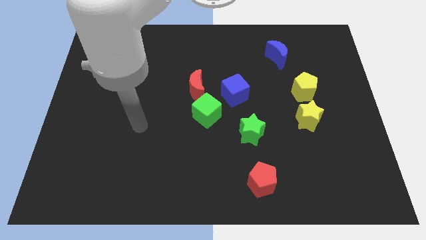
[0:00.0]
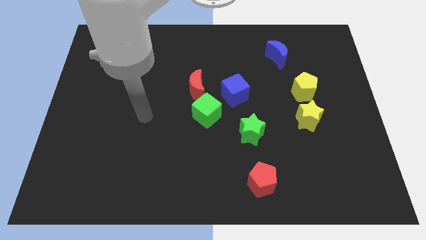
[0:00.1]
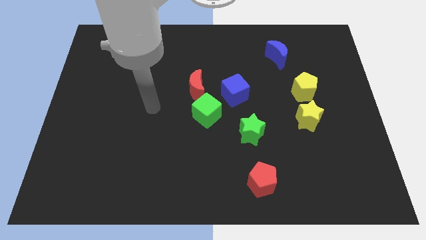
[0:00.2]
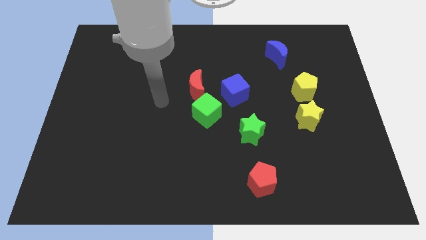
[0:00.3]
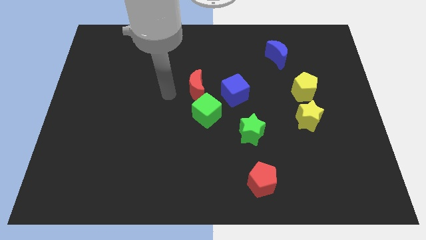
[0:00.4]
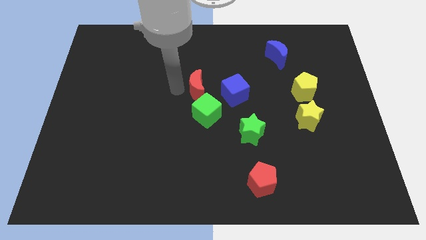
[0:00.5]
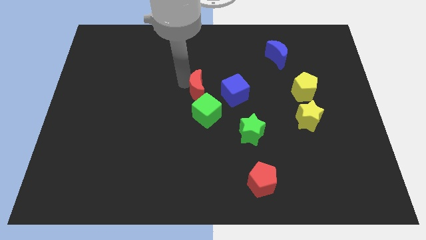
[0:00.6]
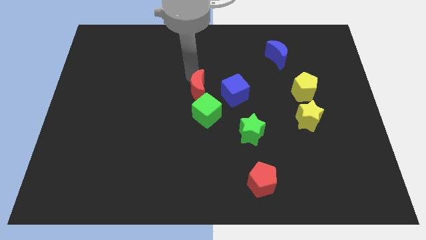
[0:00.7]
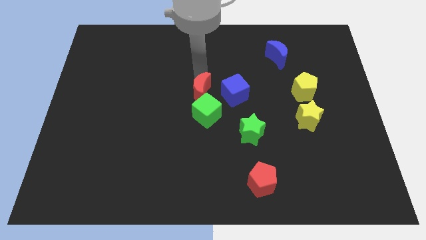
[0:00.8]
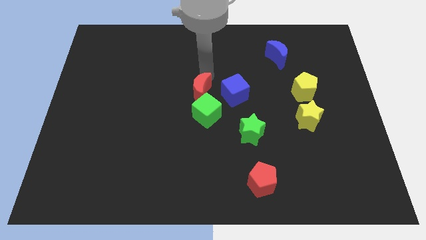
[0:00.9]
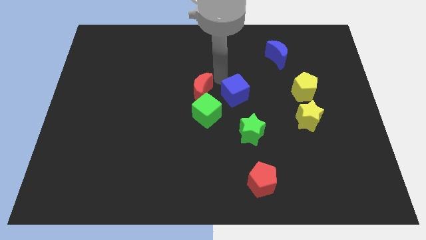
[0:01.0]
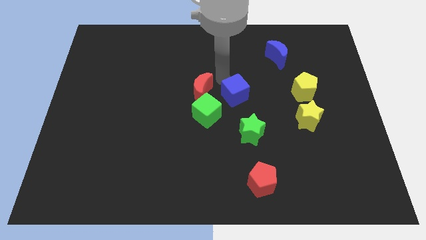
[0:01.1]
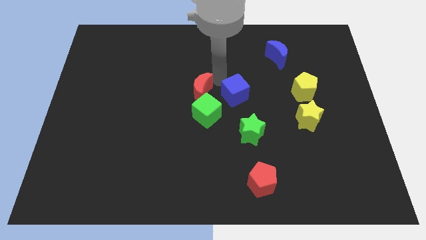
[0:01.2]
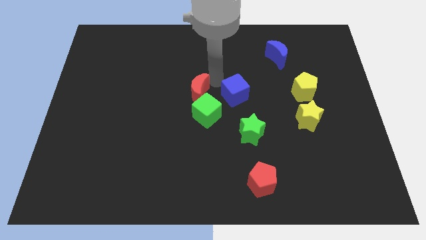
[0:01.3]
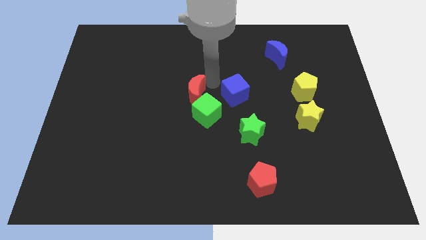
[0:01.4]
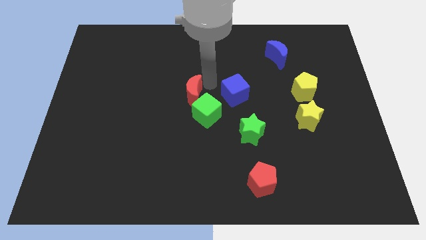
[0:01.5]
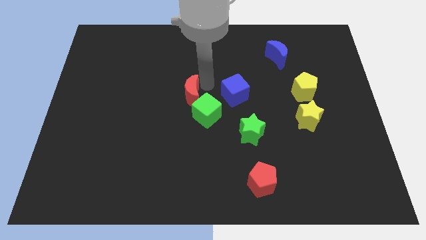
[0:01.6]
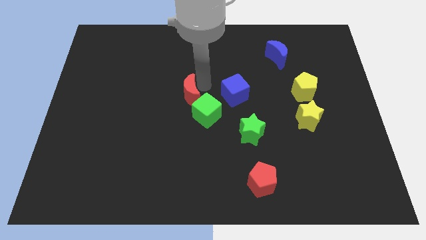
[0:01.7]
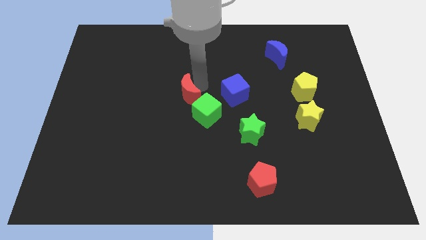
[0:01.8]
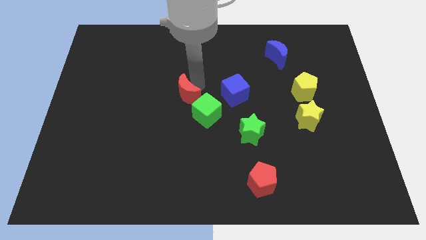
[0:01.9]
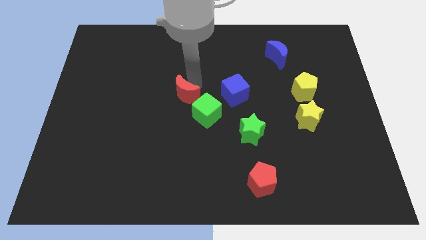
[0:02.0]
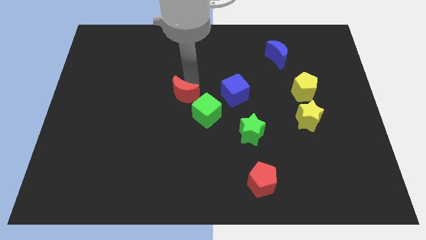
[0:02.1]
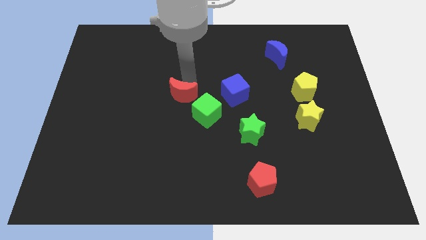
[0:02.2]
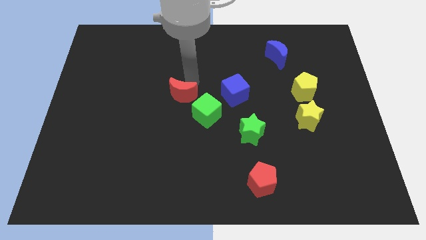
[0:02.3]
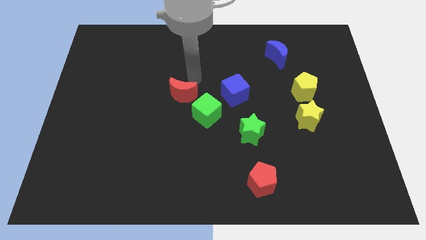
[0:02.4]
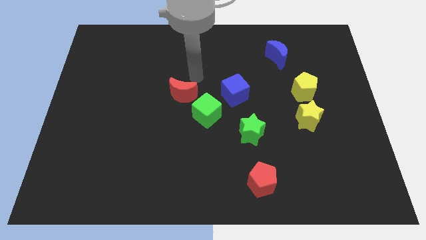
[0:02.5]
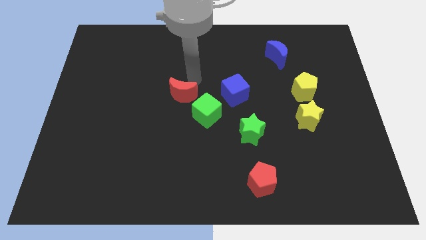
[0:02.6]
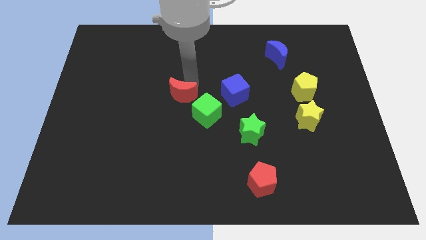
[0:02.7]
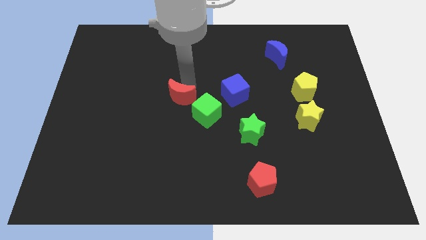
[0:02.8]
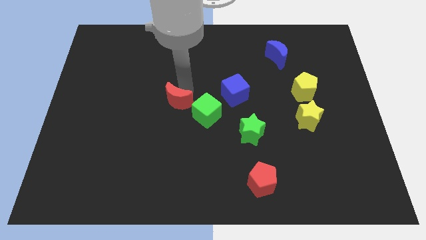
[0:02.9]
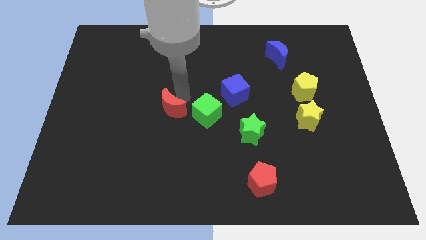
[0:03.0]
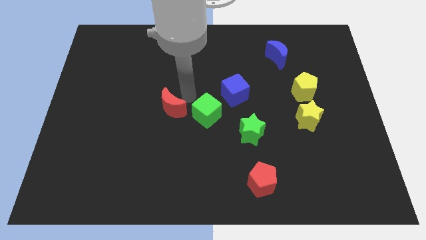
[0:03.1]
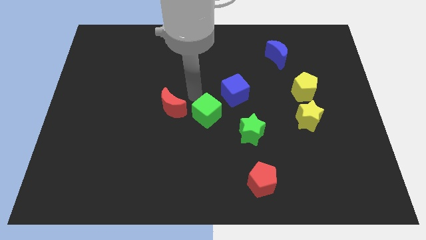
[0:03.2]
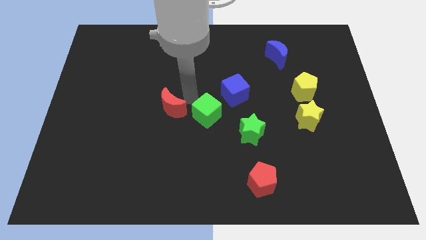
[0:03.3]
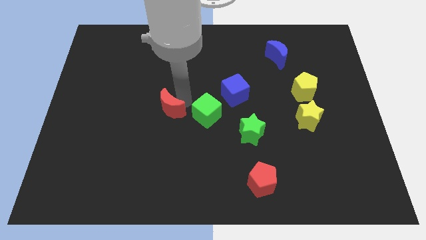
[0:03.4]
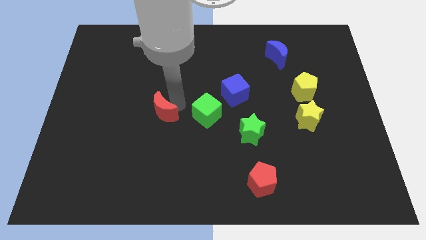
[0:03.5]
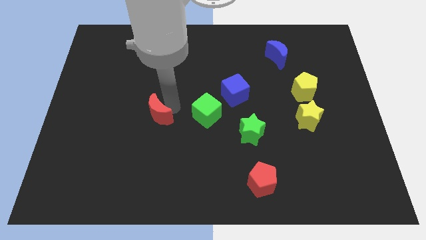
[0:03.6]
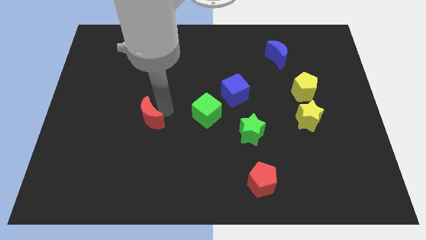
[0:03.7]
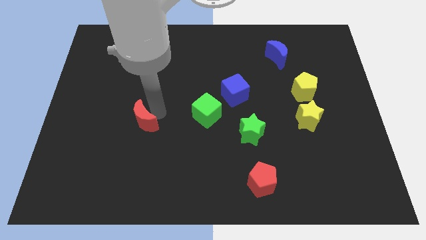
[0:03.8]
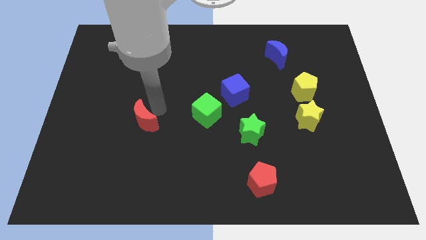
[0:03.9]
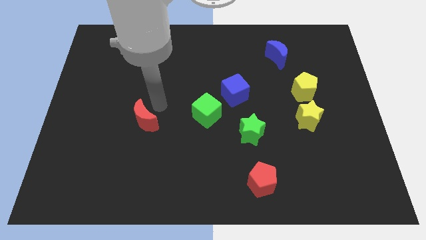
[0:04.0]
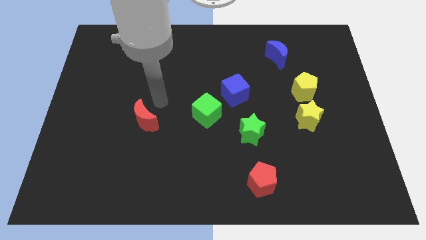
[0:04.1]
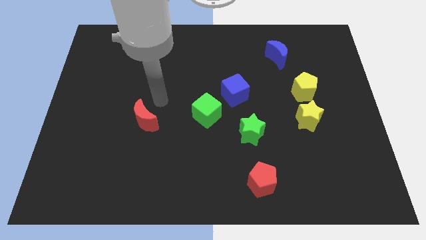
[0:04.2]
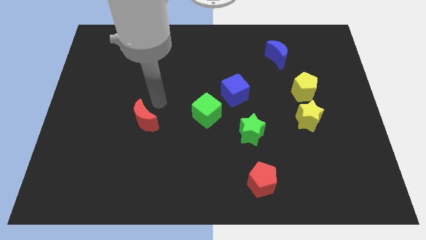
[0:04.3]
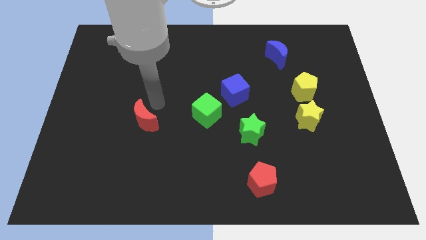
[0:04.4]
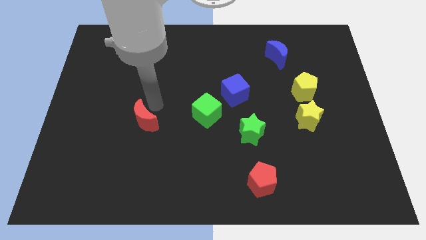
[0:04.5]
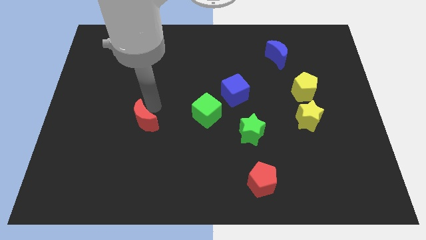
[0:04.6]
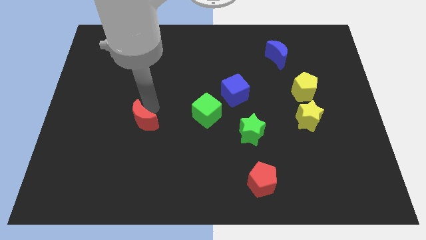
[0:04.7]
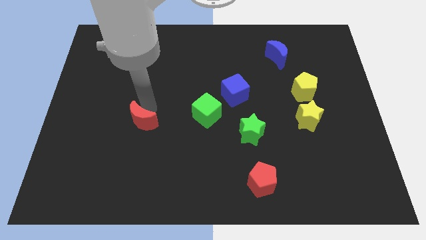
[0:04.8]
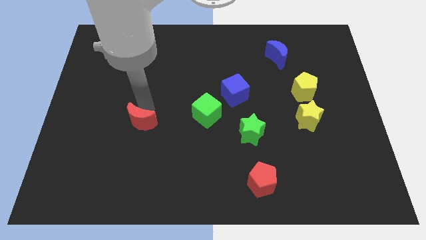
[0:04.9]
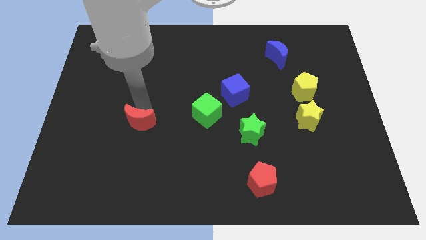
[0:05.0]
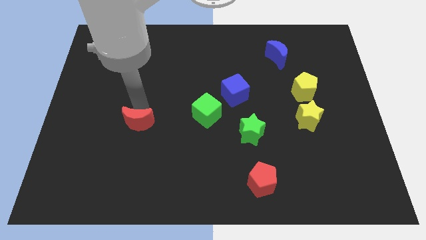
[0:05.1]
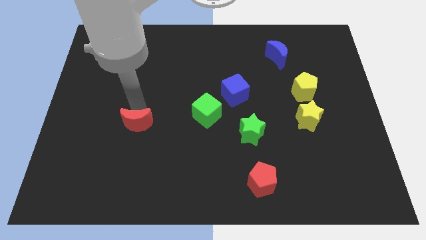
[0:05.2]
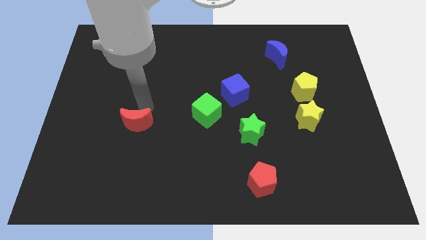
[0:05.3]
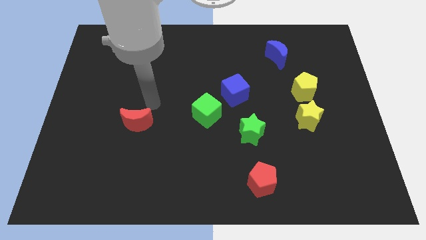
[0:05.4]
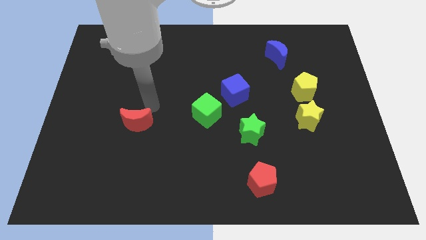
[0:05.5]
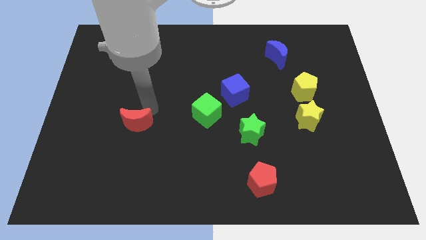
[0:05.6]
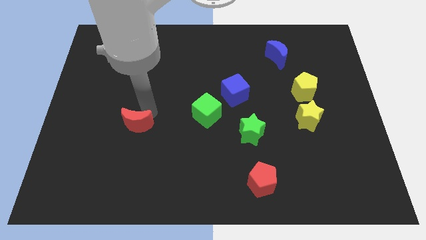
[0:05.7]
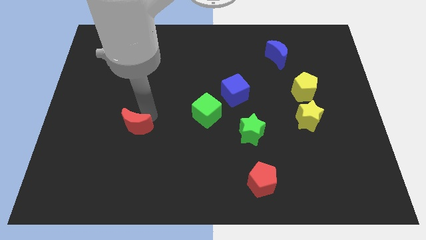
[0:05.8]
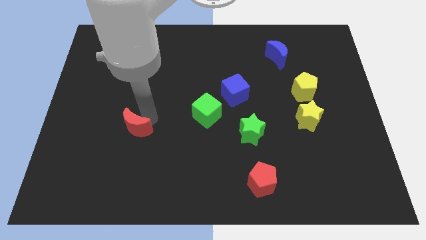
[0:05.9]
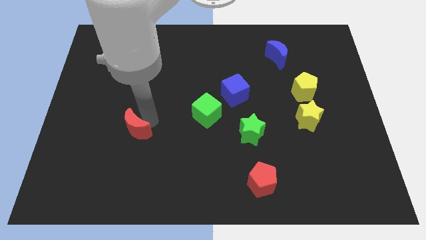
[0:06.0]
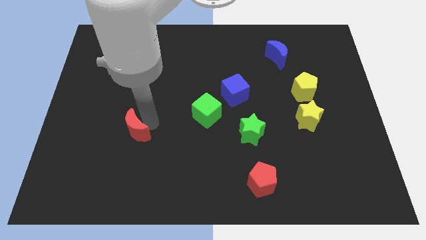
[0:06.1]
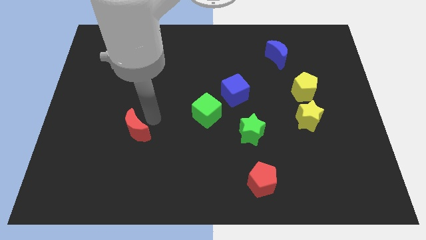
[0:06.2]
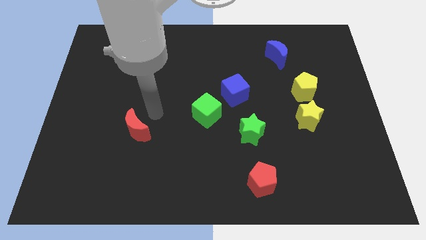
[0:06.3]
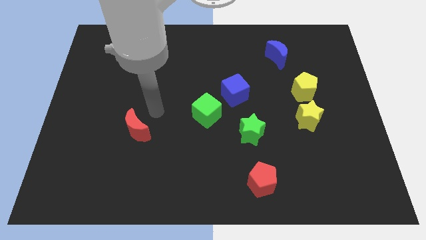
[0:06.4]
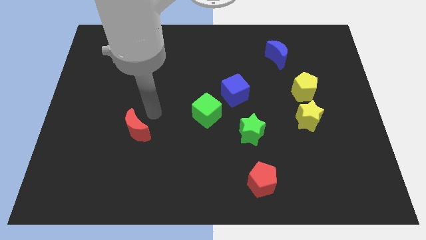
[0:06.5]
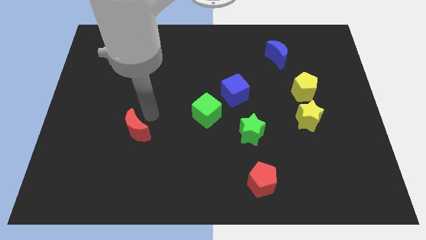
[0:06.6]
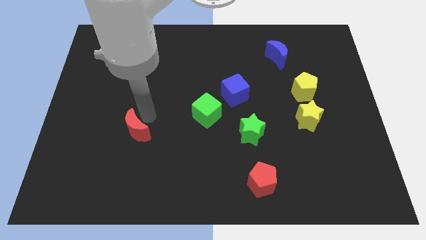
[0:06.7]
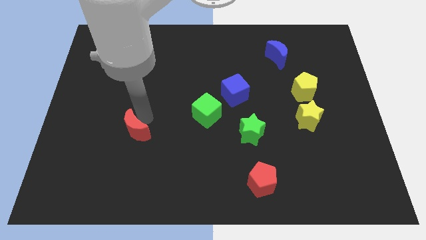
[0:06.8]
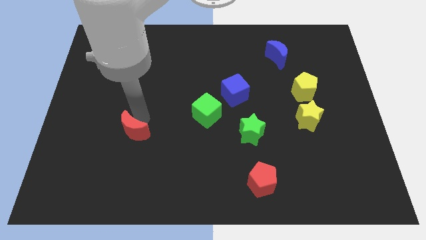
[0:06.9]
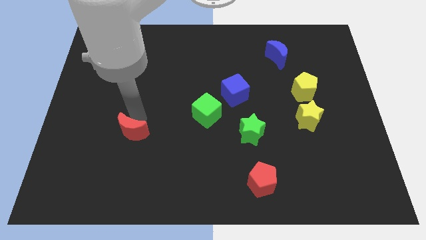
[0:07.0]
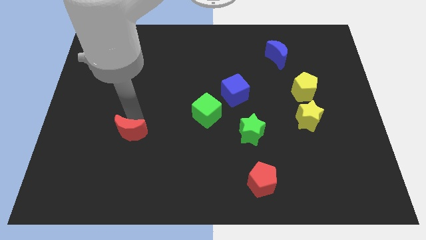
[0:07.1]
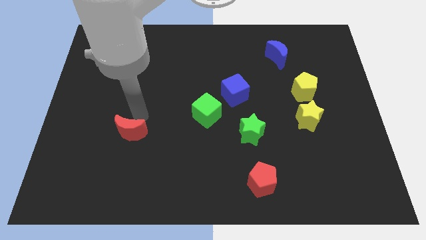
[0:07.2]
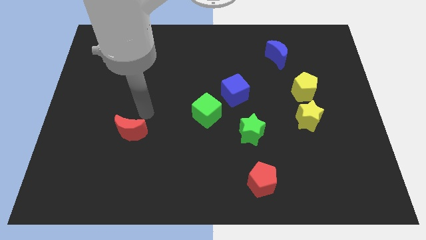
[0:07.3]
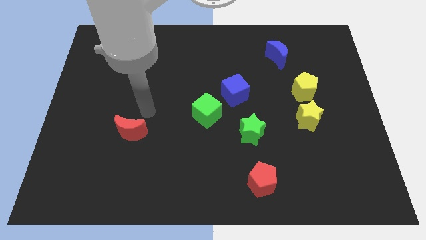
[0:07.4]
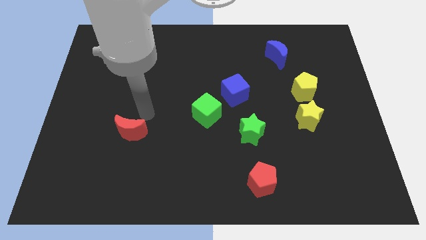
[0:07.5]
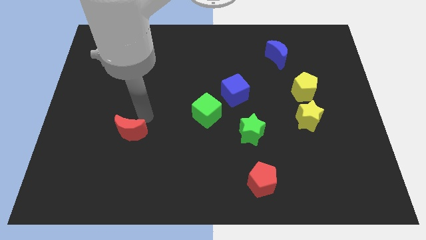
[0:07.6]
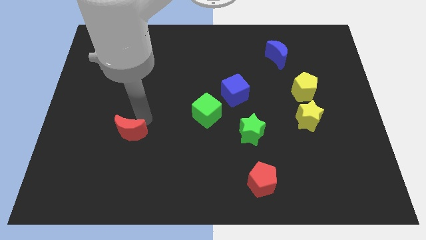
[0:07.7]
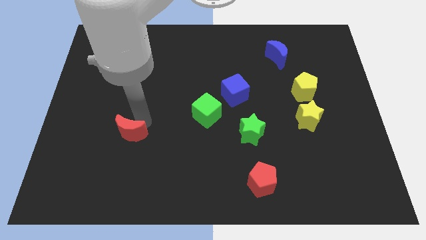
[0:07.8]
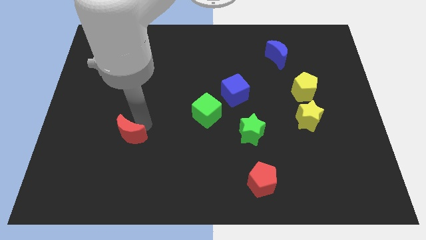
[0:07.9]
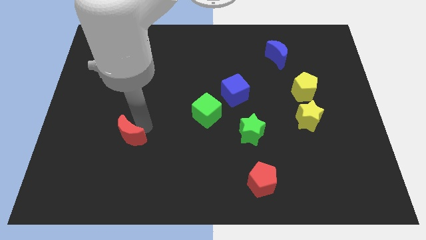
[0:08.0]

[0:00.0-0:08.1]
push the red moon diagonally down and left

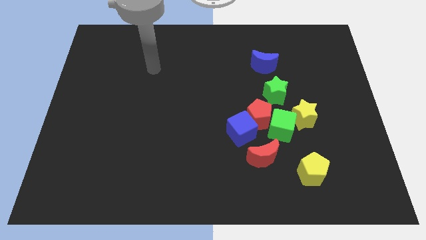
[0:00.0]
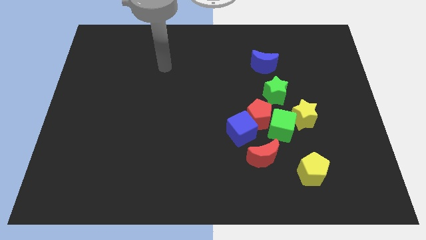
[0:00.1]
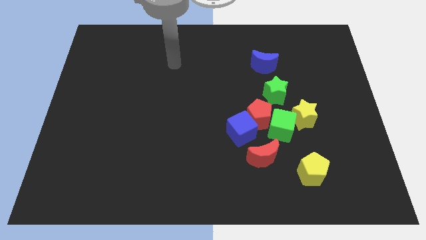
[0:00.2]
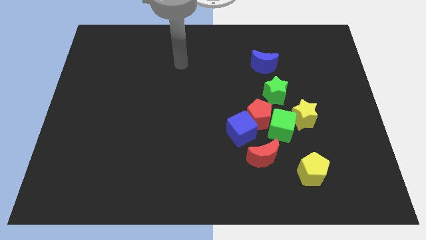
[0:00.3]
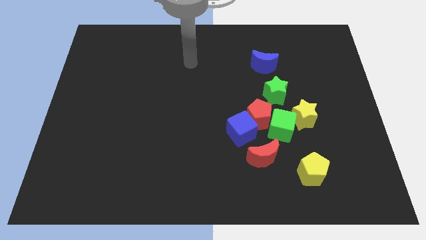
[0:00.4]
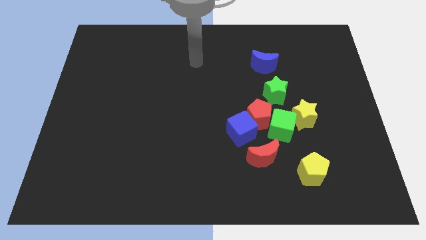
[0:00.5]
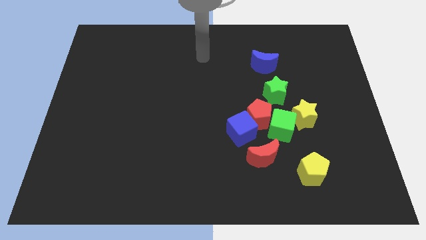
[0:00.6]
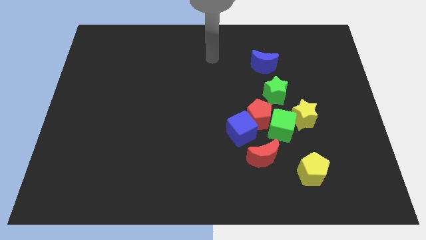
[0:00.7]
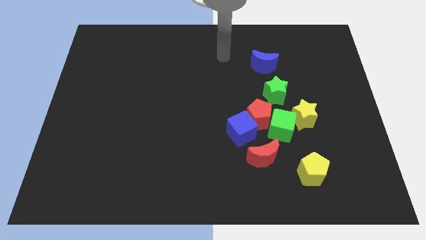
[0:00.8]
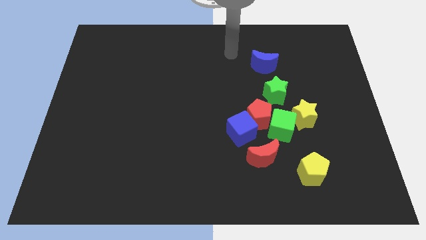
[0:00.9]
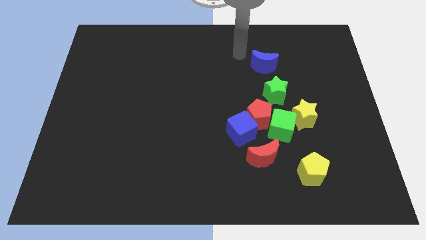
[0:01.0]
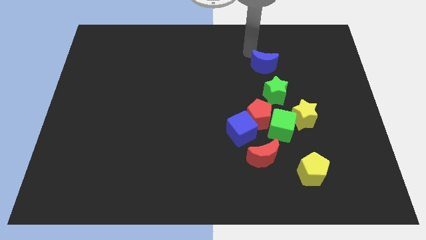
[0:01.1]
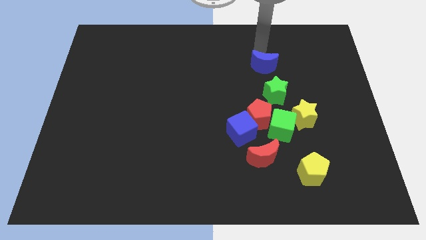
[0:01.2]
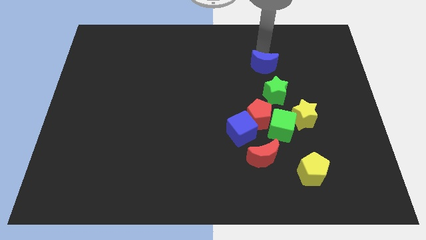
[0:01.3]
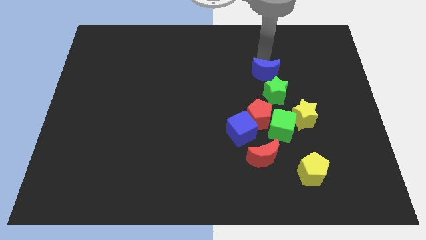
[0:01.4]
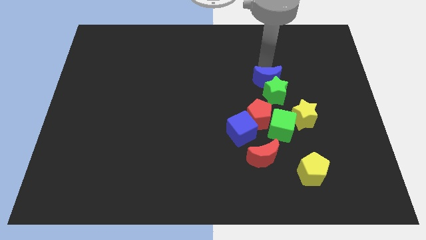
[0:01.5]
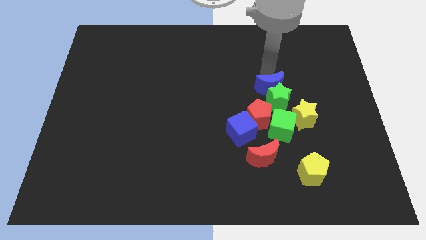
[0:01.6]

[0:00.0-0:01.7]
slightly move the blue moon down
